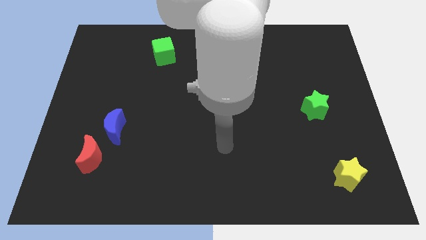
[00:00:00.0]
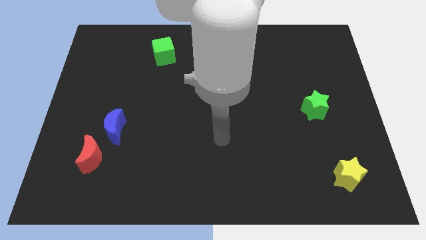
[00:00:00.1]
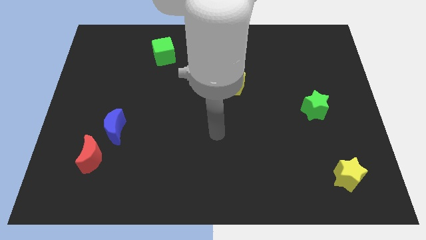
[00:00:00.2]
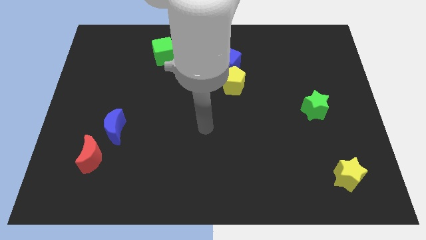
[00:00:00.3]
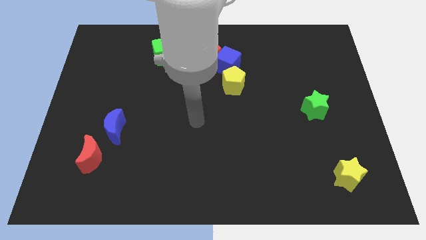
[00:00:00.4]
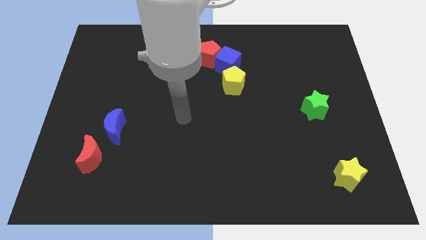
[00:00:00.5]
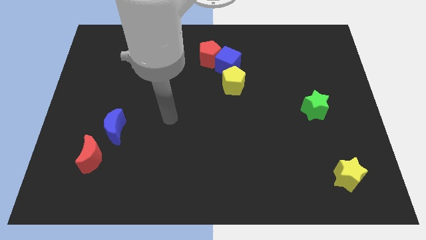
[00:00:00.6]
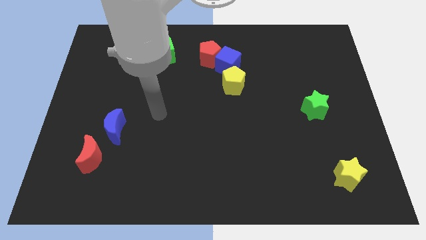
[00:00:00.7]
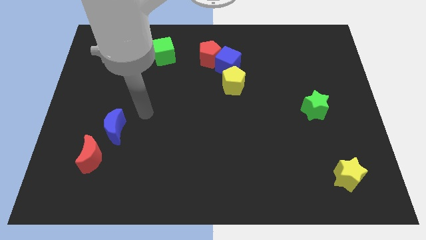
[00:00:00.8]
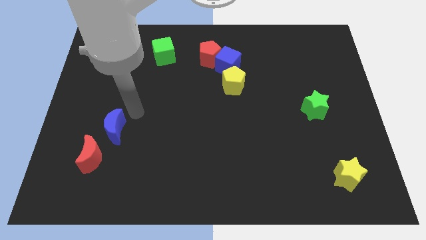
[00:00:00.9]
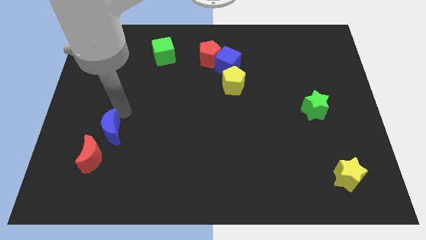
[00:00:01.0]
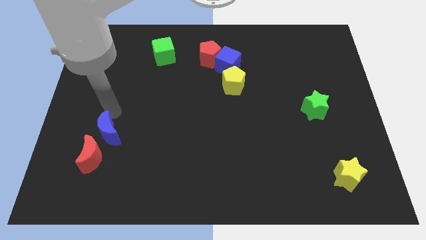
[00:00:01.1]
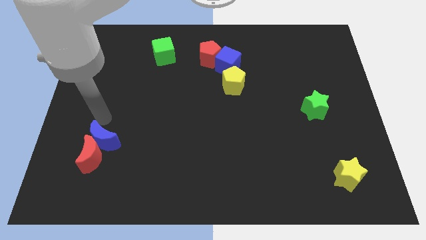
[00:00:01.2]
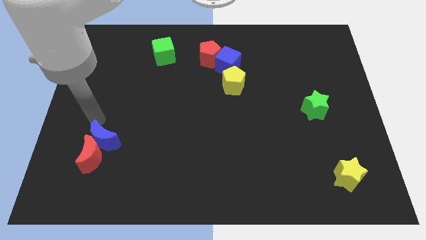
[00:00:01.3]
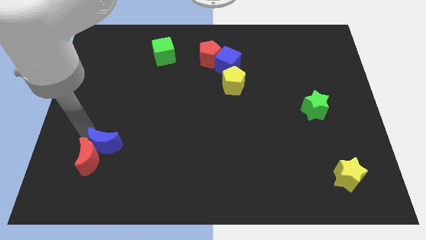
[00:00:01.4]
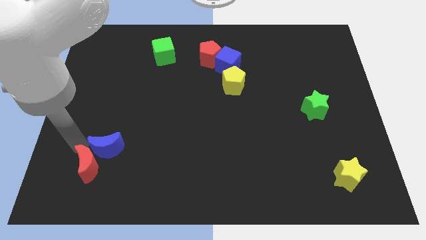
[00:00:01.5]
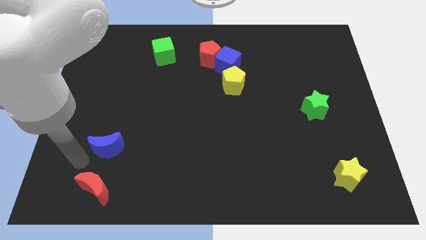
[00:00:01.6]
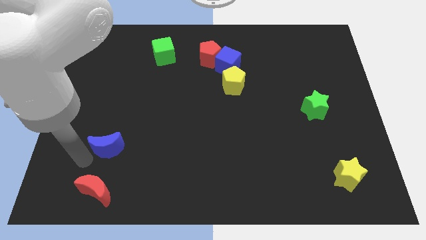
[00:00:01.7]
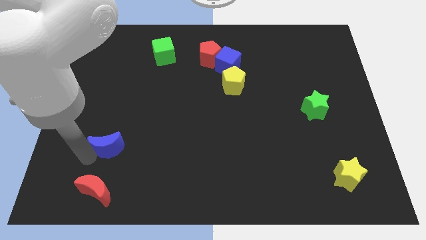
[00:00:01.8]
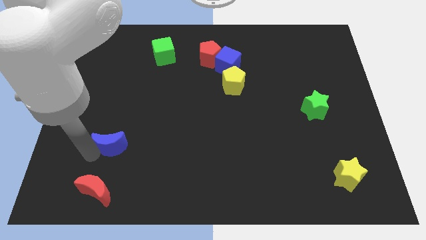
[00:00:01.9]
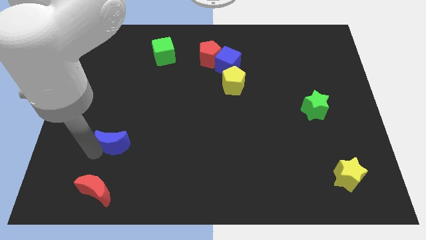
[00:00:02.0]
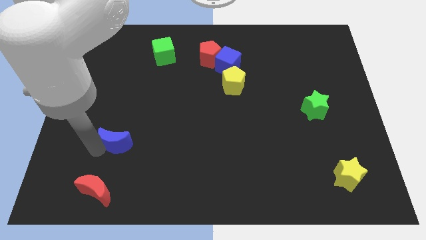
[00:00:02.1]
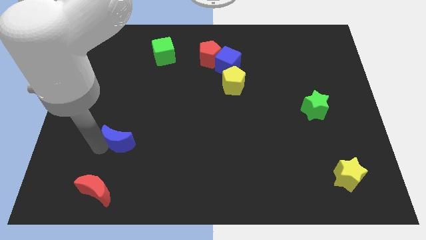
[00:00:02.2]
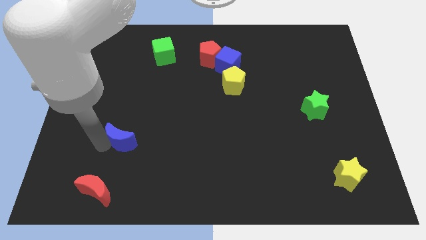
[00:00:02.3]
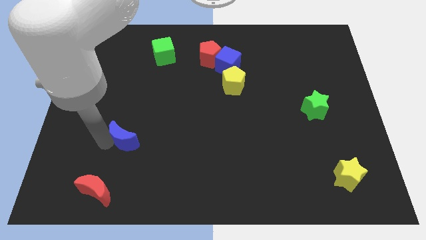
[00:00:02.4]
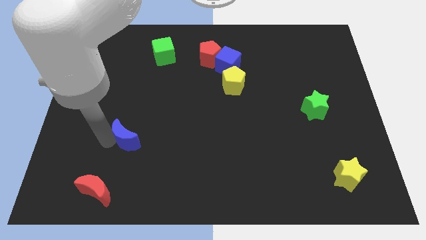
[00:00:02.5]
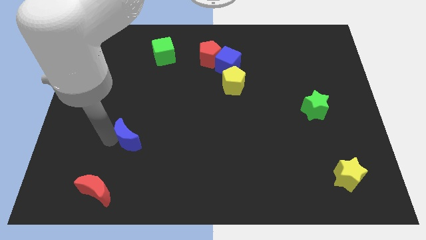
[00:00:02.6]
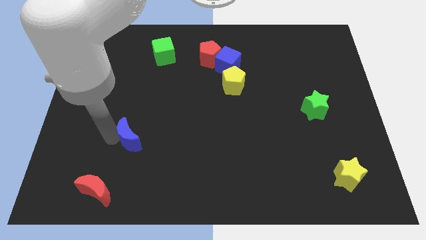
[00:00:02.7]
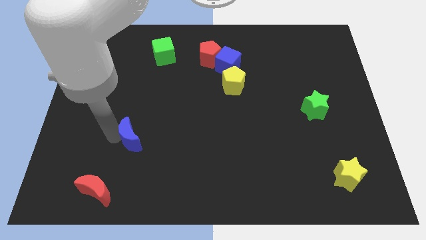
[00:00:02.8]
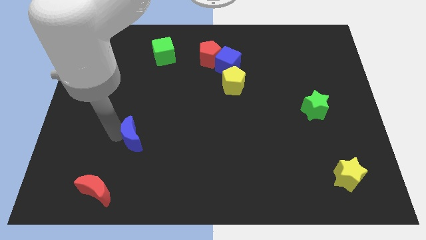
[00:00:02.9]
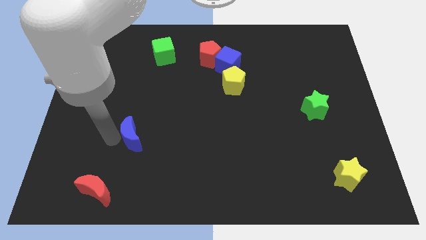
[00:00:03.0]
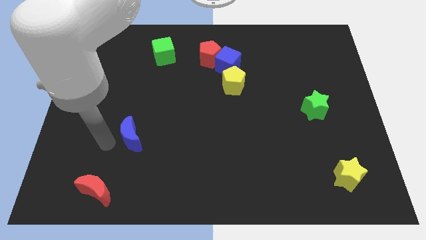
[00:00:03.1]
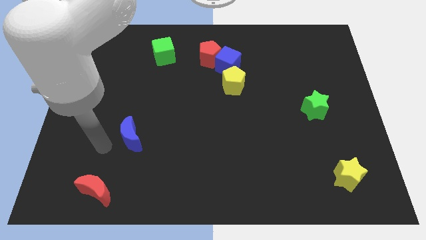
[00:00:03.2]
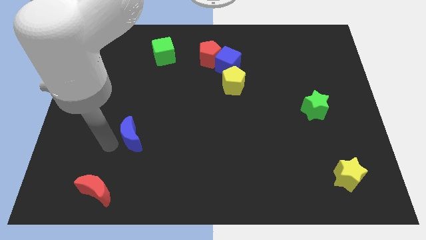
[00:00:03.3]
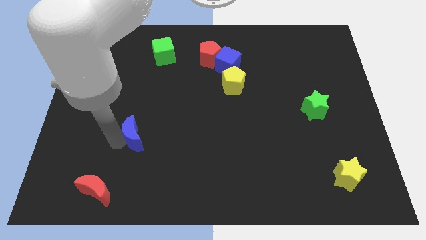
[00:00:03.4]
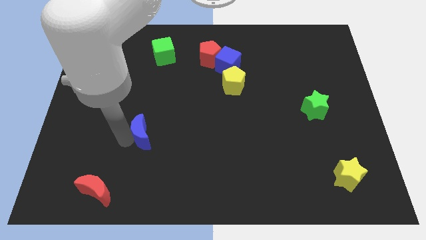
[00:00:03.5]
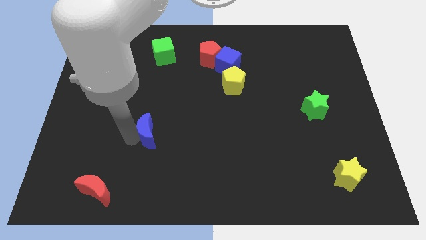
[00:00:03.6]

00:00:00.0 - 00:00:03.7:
slide the blue moon a little bit to the right

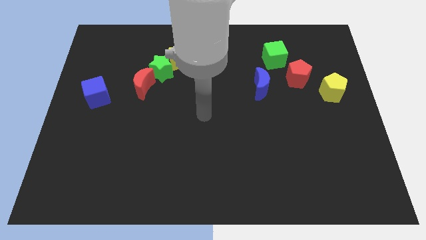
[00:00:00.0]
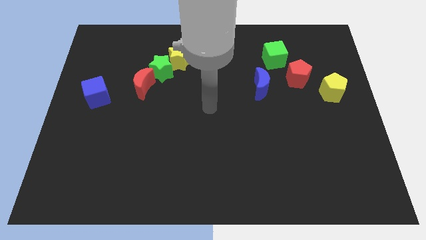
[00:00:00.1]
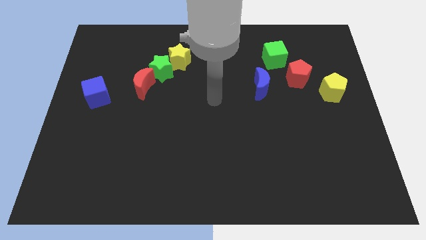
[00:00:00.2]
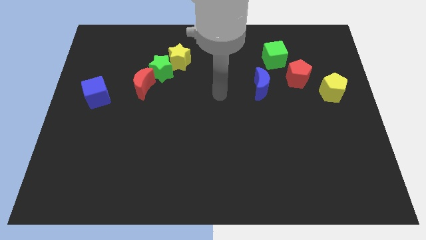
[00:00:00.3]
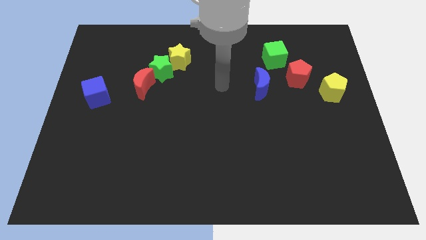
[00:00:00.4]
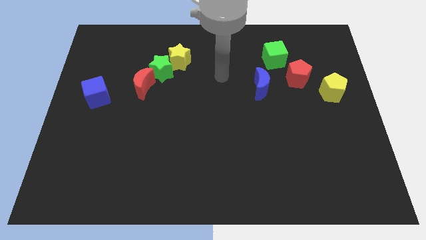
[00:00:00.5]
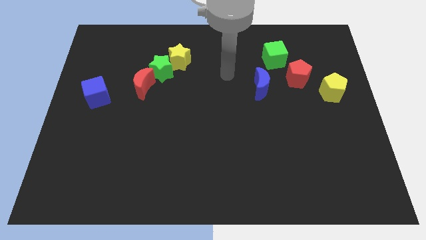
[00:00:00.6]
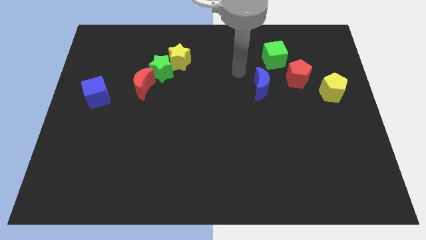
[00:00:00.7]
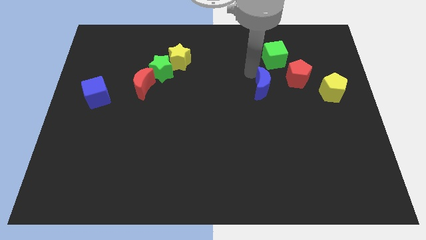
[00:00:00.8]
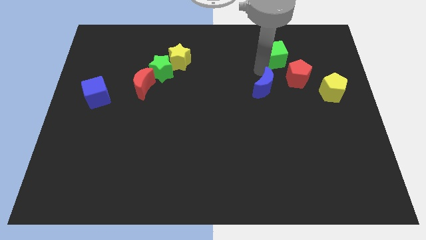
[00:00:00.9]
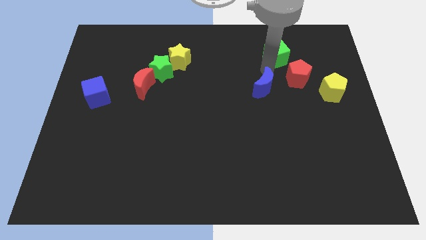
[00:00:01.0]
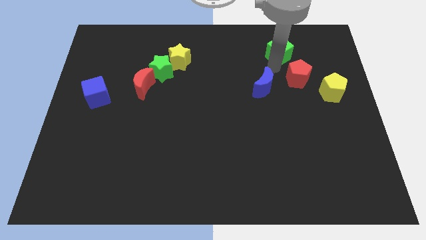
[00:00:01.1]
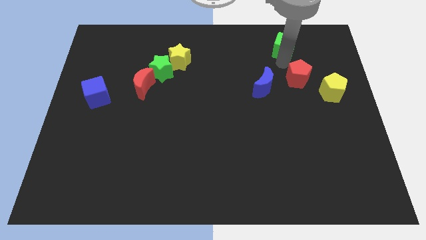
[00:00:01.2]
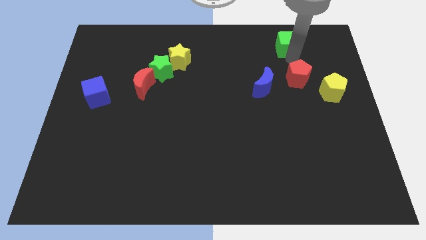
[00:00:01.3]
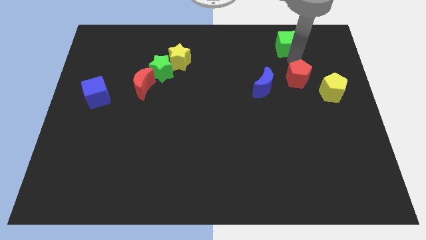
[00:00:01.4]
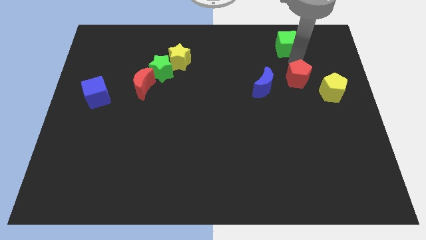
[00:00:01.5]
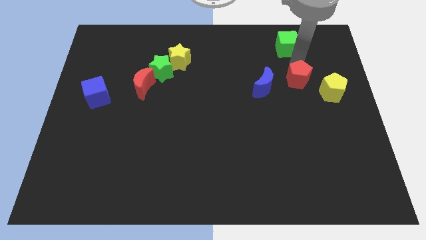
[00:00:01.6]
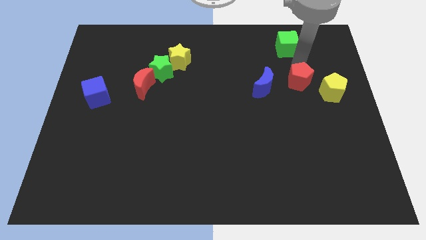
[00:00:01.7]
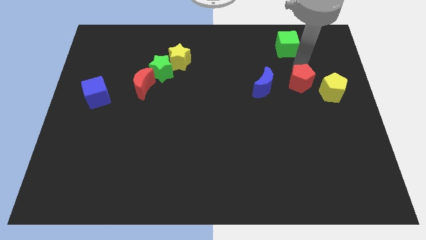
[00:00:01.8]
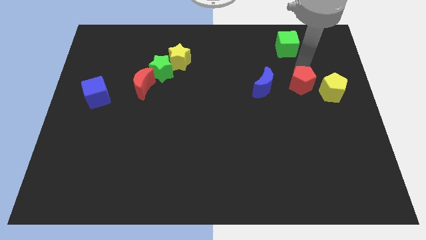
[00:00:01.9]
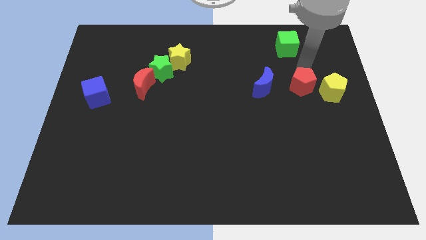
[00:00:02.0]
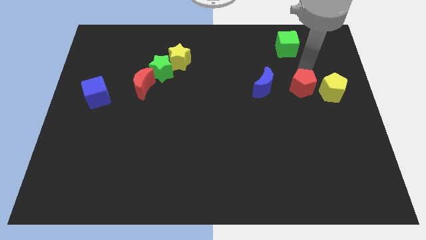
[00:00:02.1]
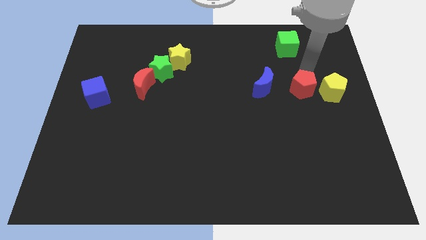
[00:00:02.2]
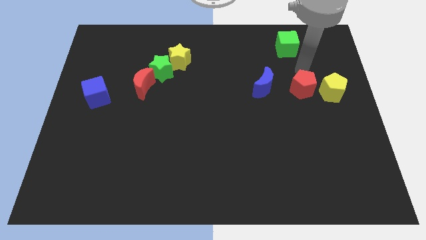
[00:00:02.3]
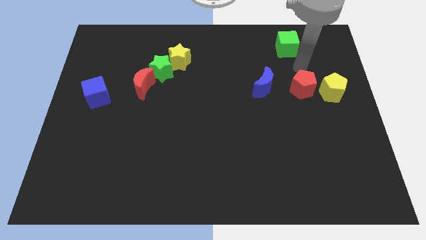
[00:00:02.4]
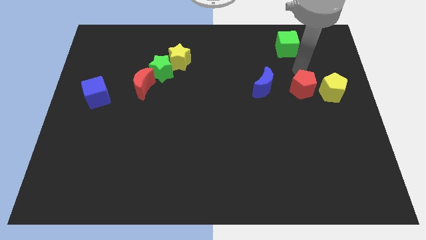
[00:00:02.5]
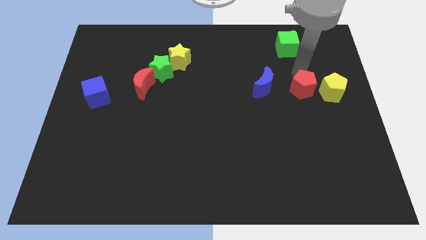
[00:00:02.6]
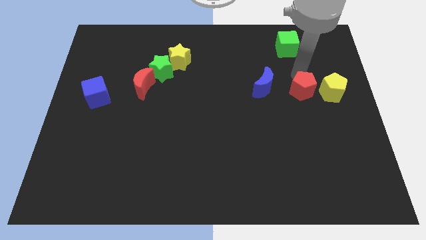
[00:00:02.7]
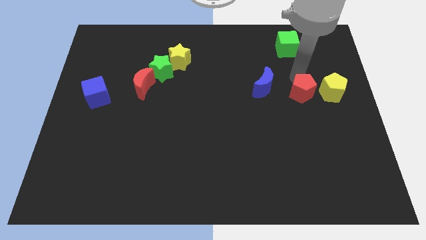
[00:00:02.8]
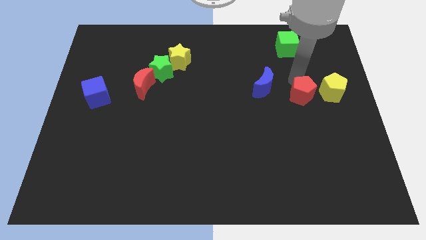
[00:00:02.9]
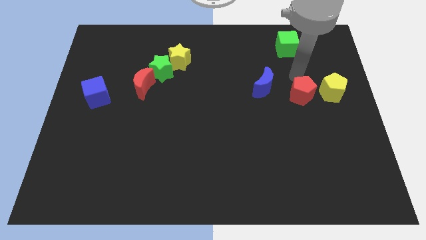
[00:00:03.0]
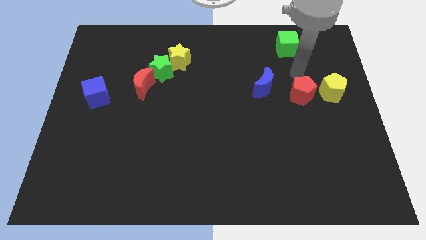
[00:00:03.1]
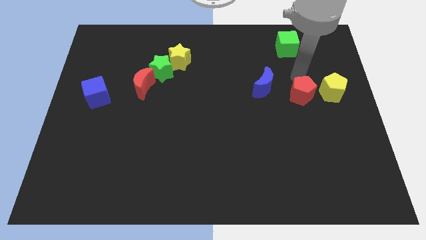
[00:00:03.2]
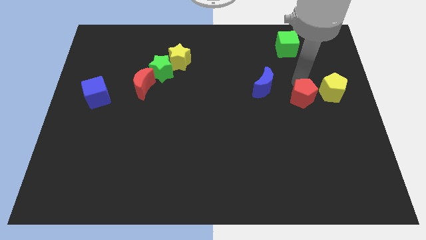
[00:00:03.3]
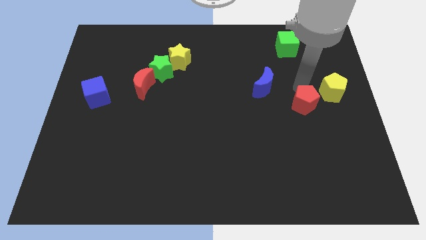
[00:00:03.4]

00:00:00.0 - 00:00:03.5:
push the red pentagon downwards a bit

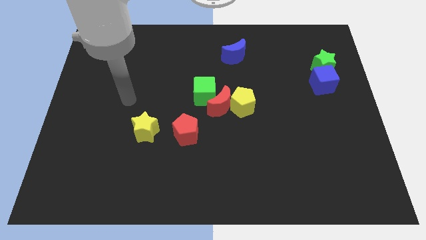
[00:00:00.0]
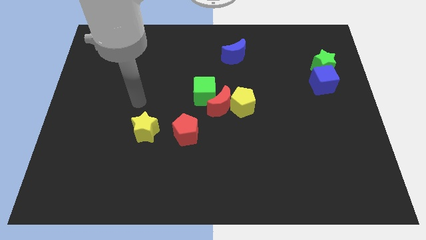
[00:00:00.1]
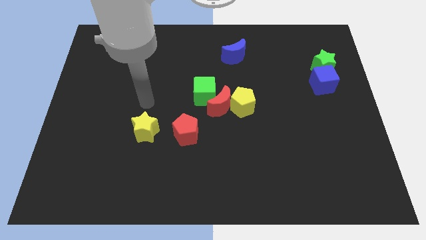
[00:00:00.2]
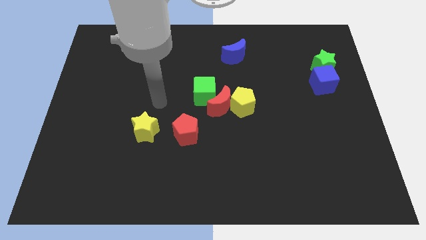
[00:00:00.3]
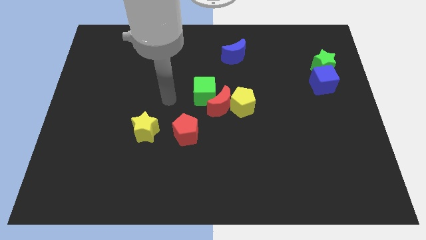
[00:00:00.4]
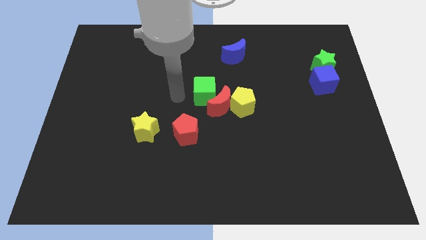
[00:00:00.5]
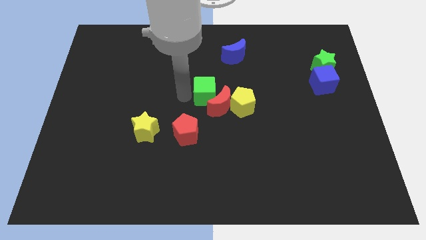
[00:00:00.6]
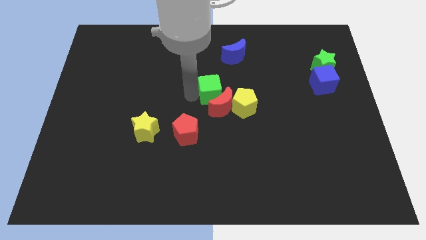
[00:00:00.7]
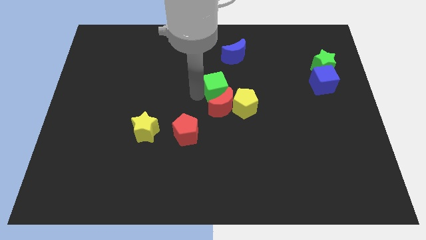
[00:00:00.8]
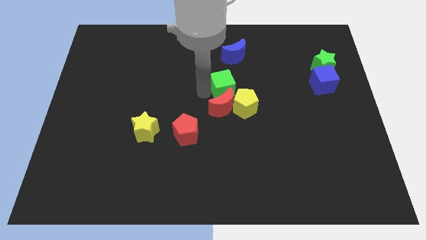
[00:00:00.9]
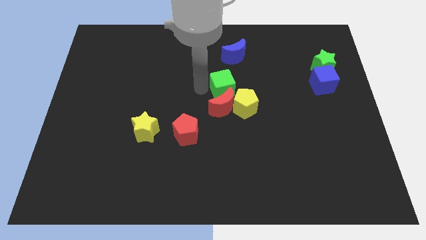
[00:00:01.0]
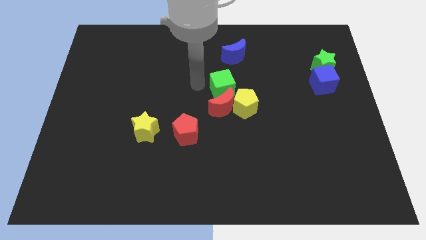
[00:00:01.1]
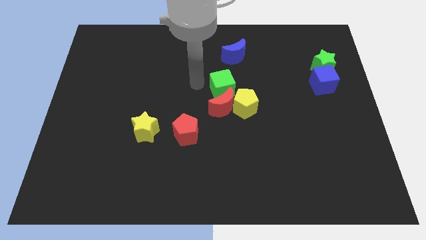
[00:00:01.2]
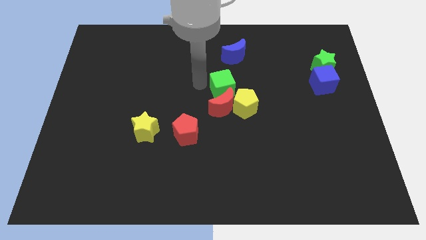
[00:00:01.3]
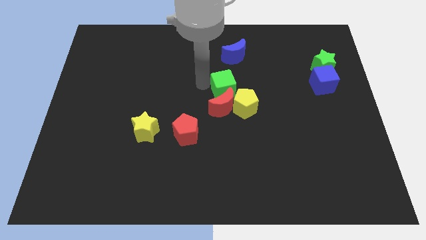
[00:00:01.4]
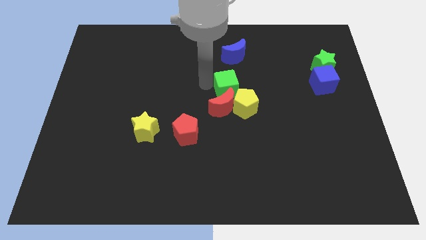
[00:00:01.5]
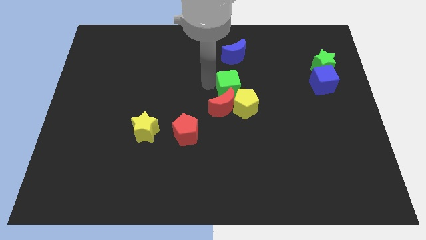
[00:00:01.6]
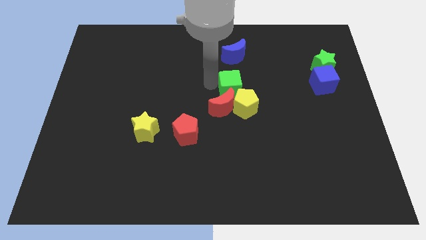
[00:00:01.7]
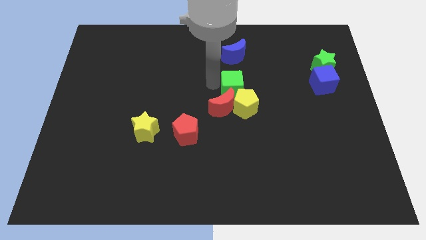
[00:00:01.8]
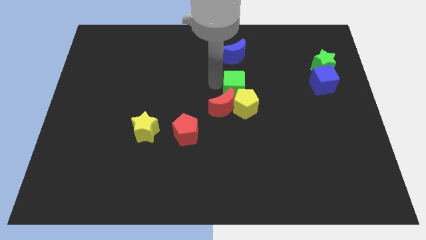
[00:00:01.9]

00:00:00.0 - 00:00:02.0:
move the green cube right a little
